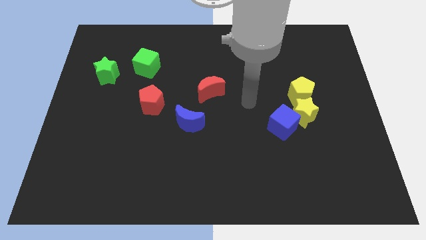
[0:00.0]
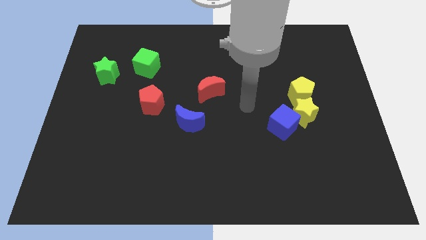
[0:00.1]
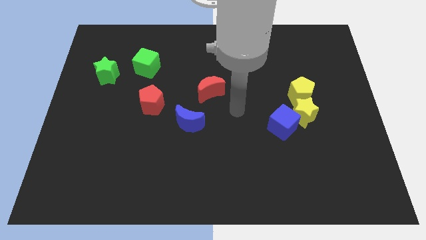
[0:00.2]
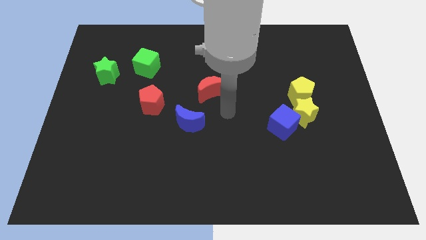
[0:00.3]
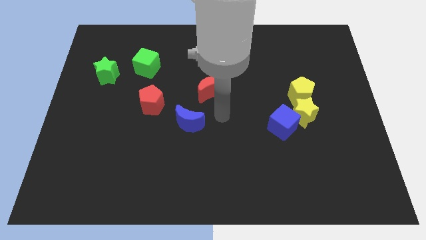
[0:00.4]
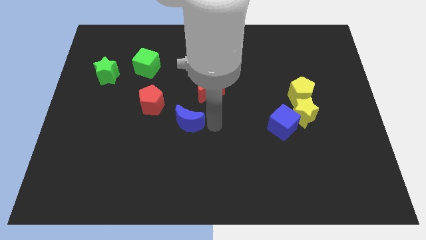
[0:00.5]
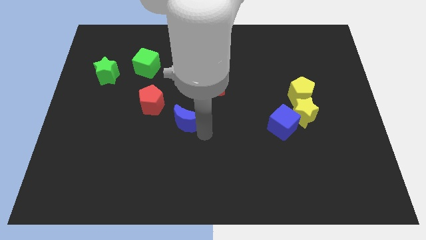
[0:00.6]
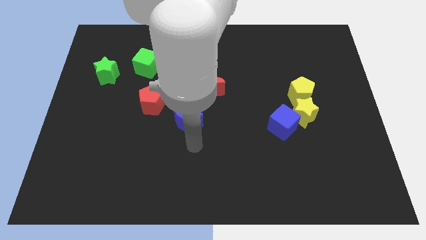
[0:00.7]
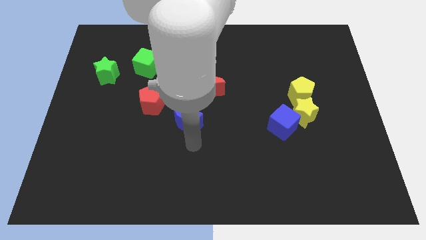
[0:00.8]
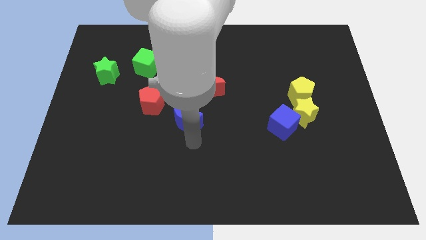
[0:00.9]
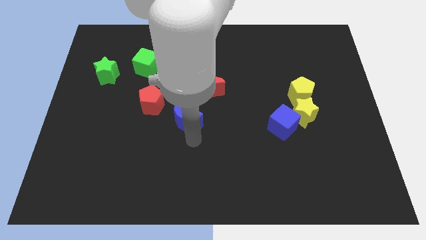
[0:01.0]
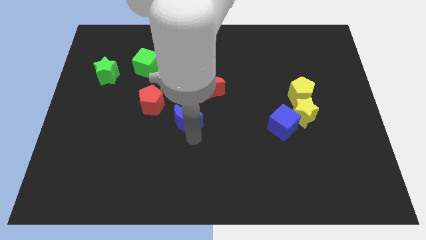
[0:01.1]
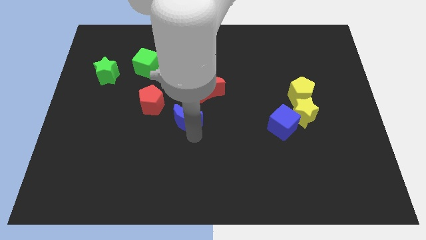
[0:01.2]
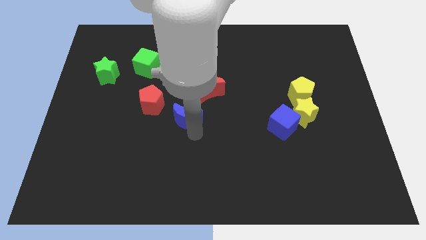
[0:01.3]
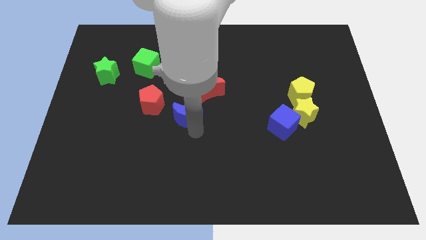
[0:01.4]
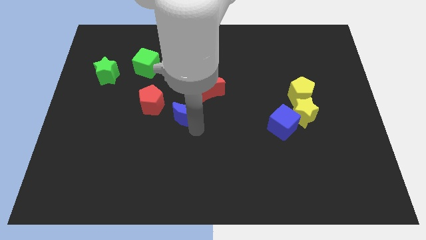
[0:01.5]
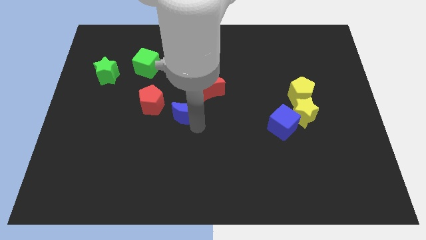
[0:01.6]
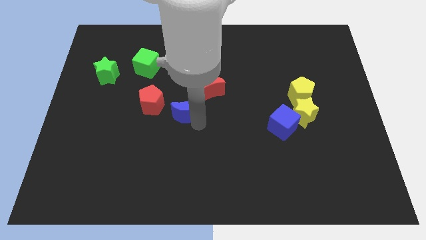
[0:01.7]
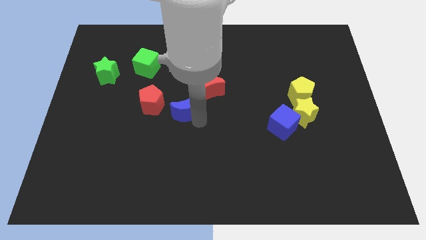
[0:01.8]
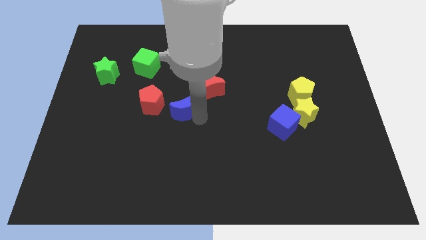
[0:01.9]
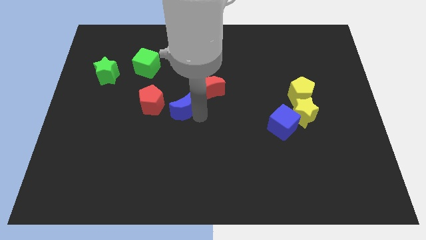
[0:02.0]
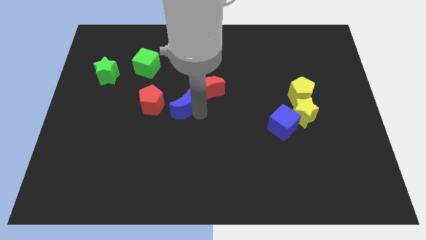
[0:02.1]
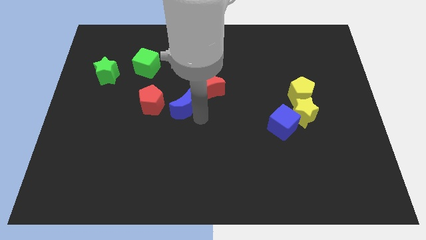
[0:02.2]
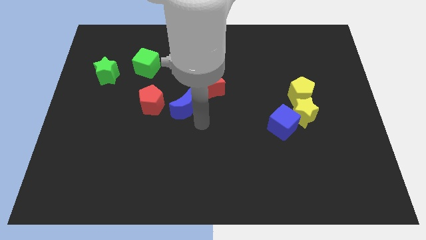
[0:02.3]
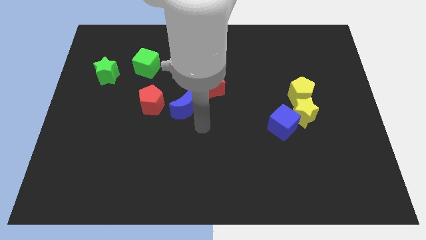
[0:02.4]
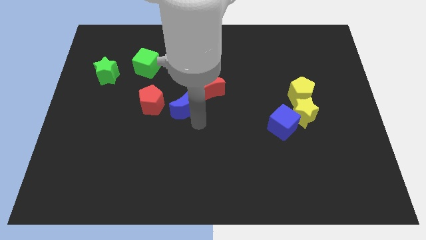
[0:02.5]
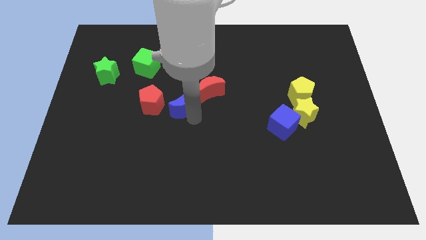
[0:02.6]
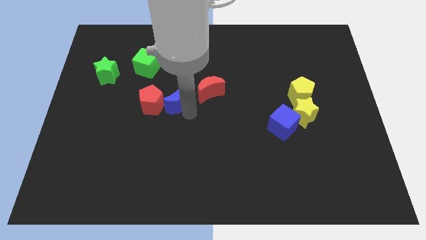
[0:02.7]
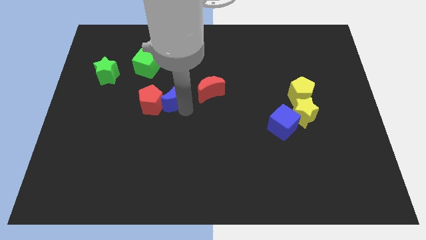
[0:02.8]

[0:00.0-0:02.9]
slide the blue moon somewhat upwards and then left

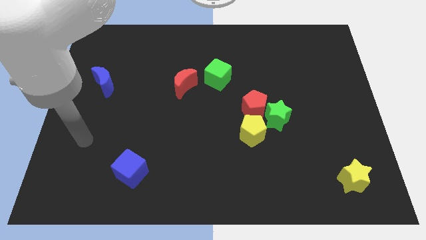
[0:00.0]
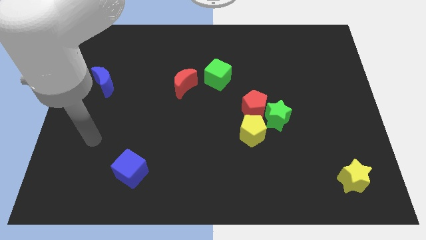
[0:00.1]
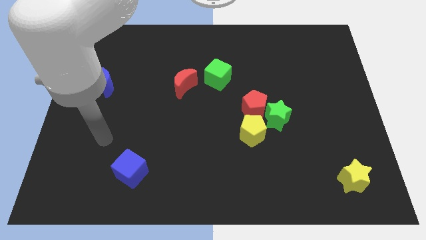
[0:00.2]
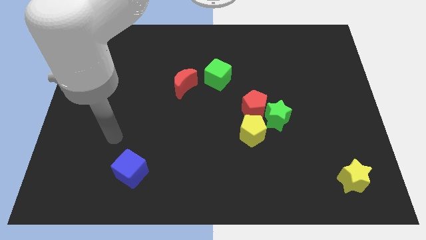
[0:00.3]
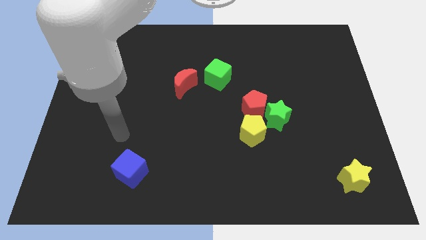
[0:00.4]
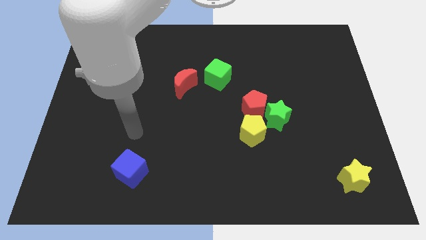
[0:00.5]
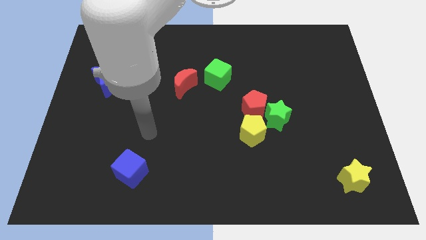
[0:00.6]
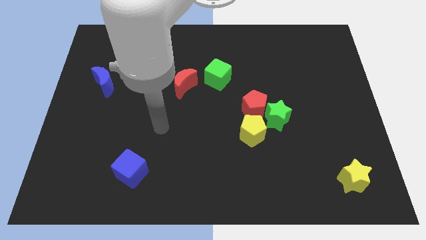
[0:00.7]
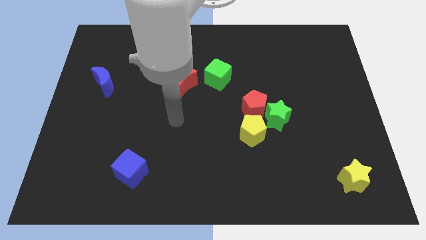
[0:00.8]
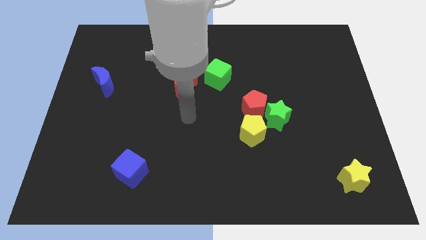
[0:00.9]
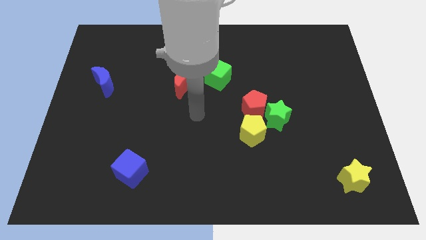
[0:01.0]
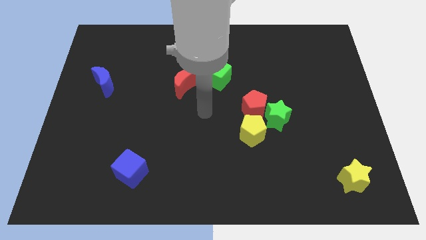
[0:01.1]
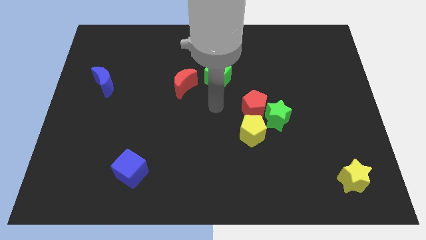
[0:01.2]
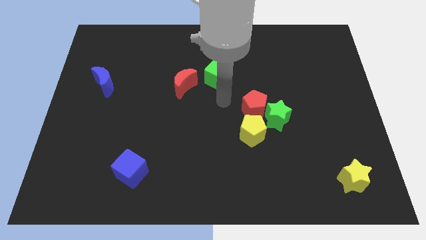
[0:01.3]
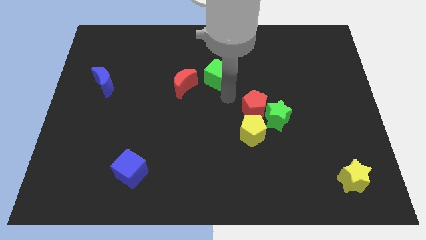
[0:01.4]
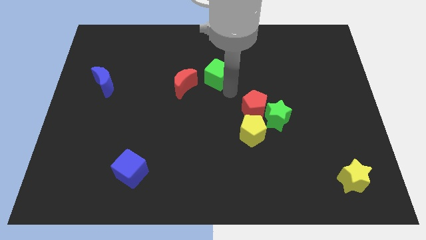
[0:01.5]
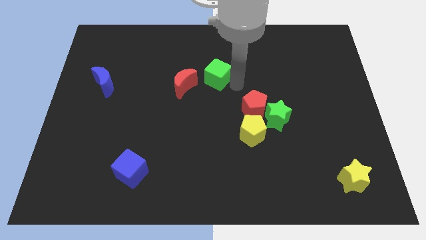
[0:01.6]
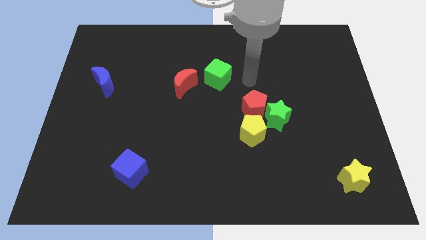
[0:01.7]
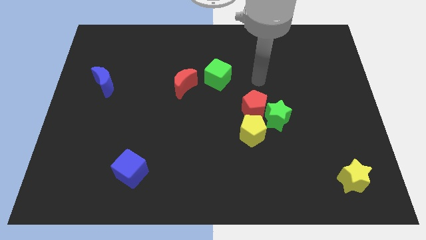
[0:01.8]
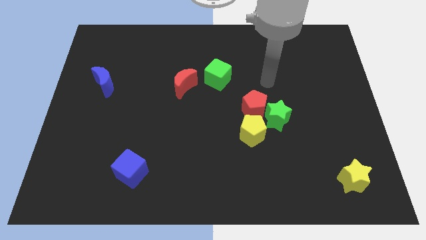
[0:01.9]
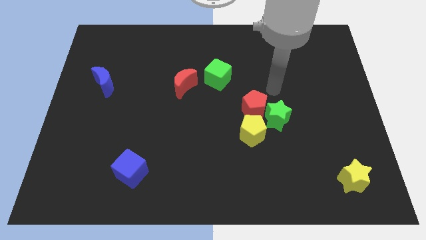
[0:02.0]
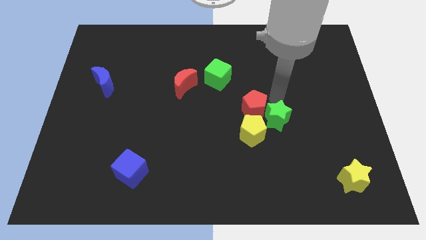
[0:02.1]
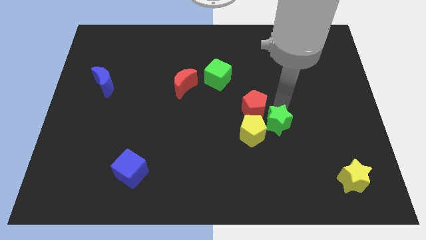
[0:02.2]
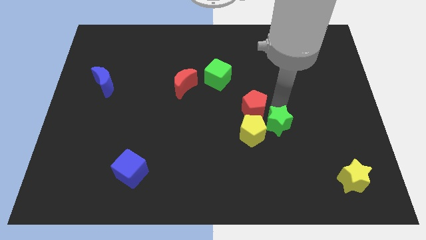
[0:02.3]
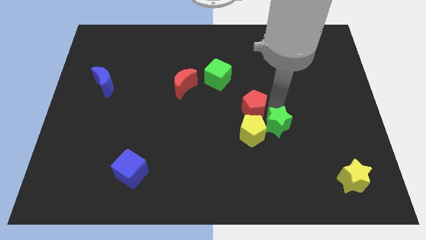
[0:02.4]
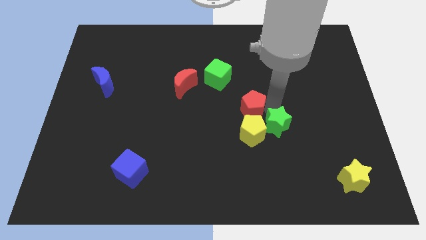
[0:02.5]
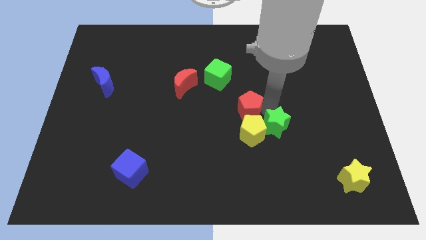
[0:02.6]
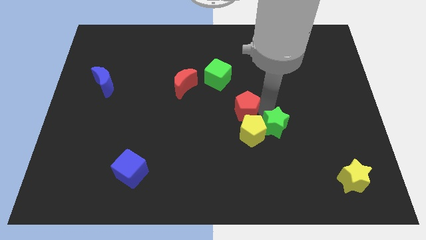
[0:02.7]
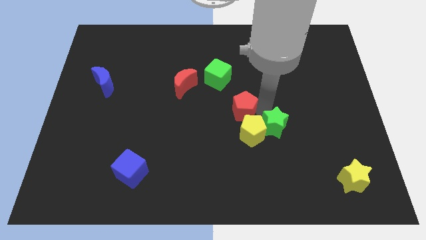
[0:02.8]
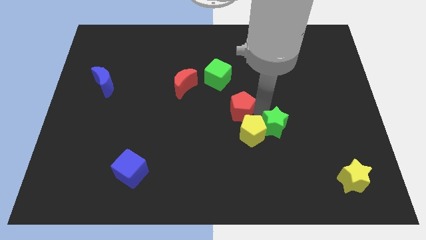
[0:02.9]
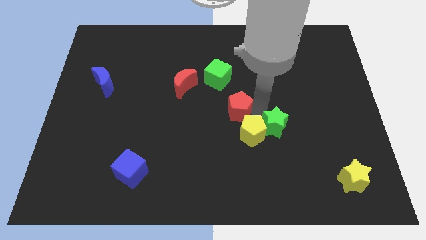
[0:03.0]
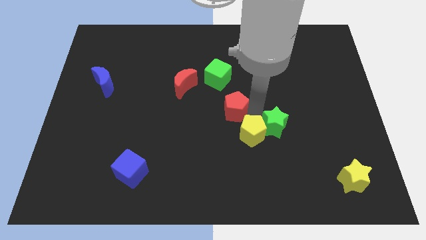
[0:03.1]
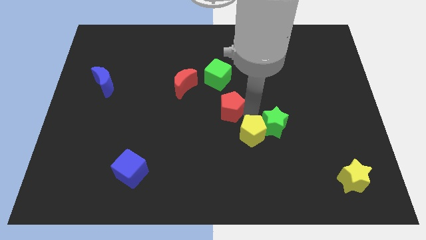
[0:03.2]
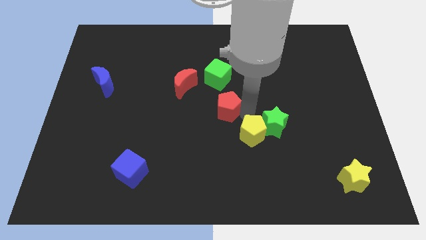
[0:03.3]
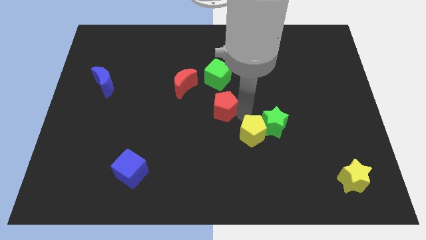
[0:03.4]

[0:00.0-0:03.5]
slightly slide the red pentagon left

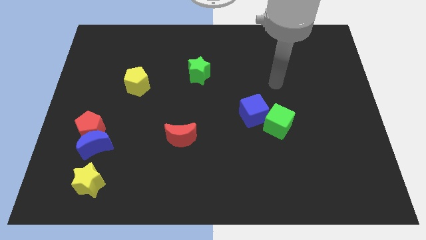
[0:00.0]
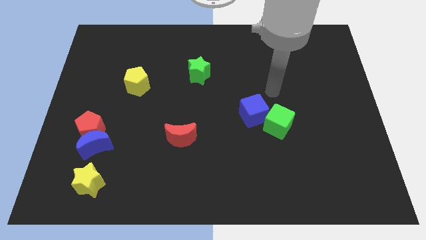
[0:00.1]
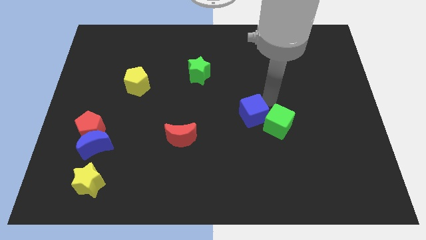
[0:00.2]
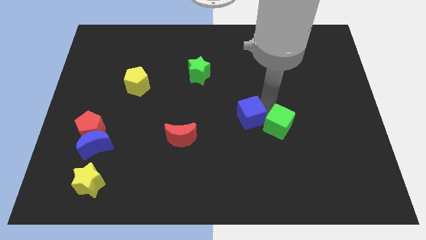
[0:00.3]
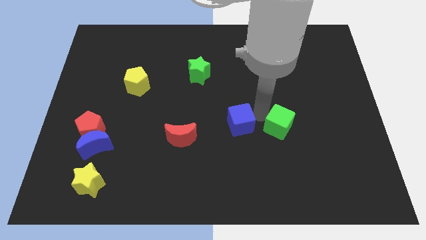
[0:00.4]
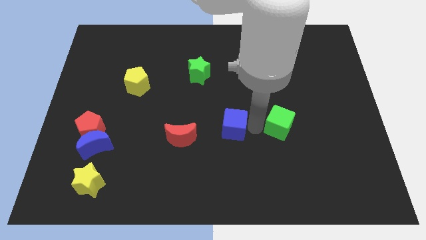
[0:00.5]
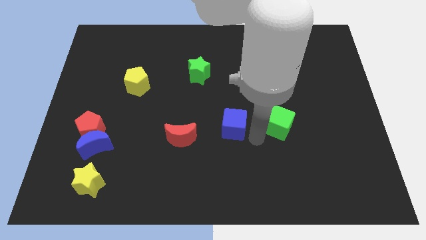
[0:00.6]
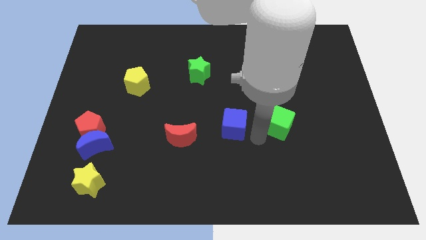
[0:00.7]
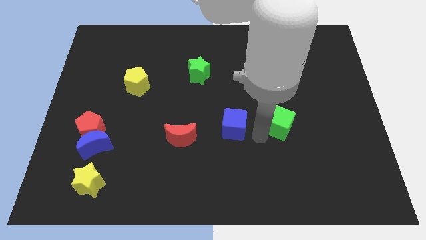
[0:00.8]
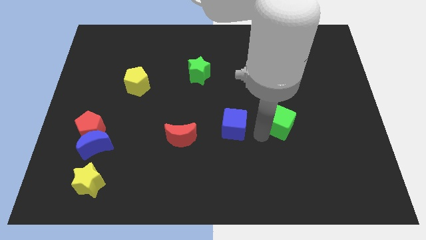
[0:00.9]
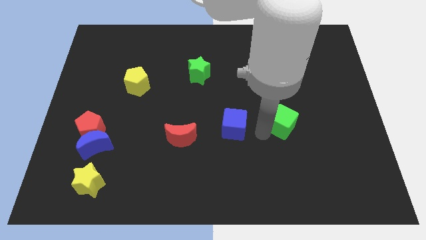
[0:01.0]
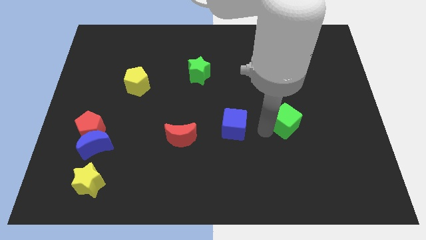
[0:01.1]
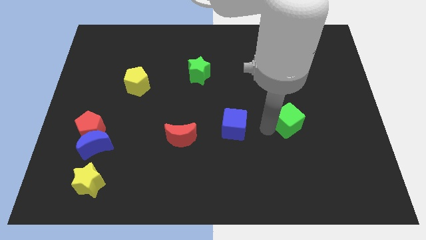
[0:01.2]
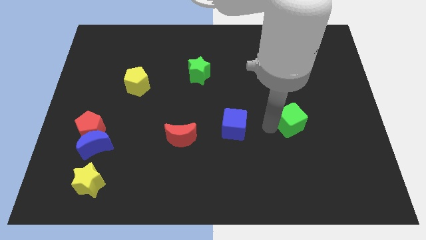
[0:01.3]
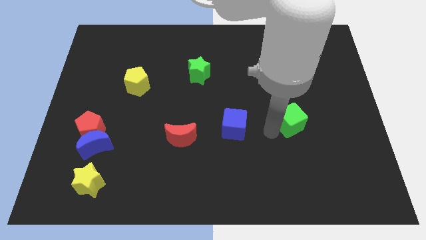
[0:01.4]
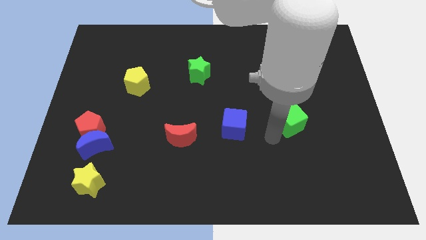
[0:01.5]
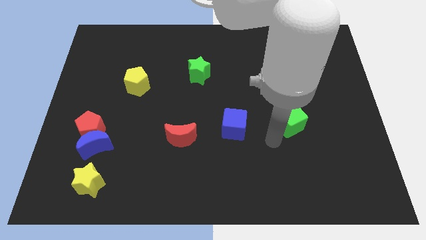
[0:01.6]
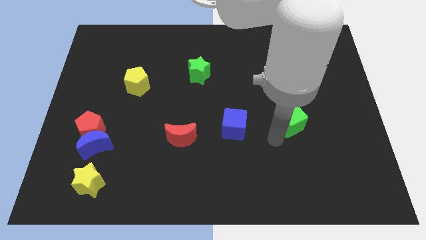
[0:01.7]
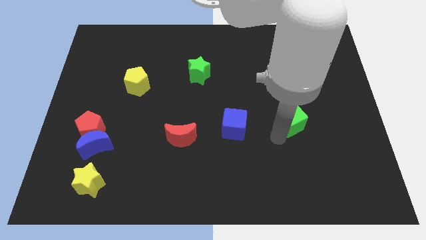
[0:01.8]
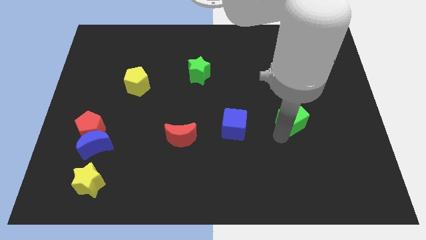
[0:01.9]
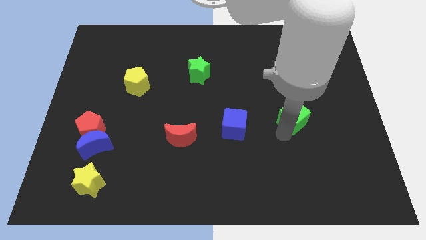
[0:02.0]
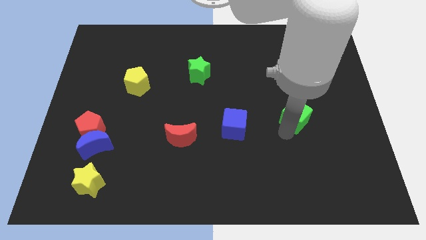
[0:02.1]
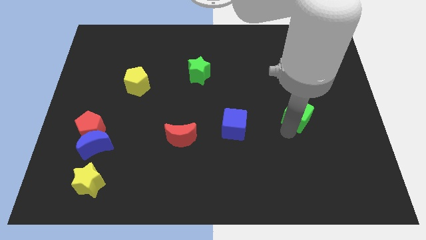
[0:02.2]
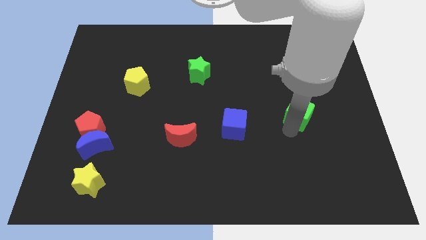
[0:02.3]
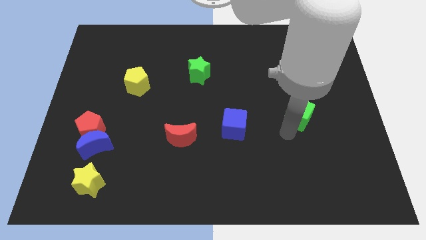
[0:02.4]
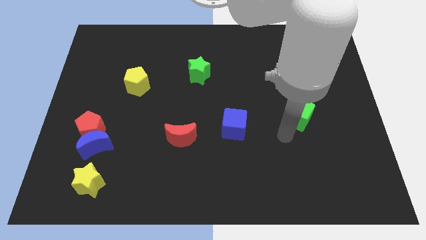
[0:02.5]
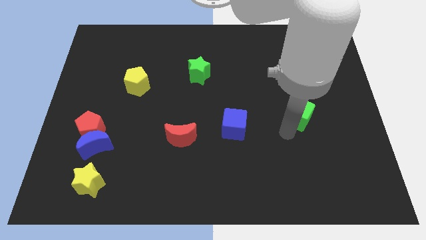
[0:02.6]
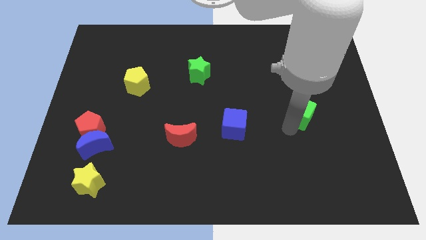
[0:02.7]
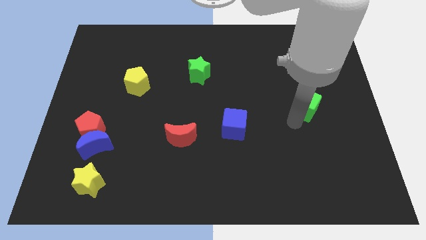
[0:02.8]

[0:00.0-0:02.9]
push the green cube diagonally upwards and right a little bit
